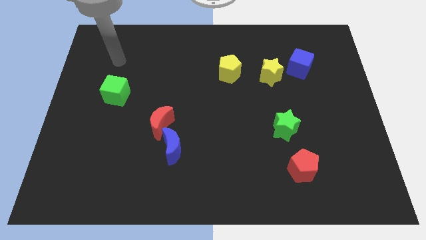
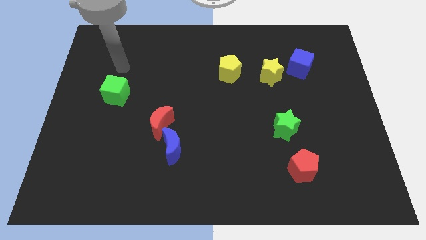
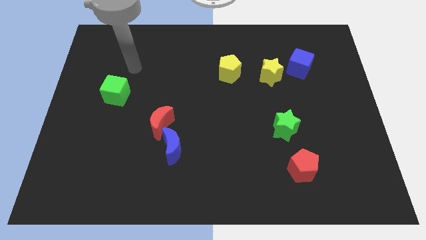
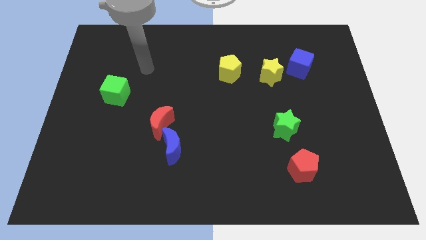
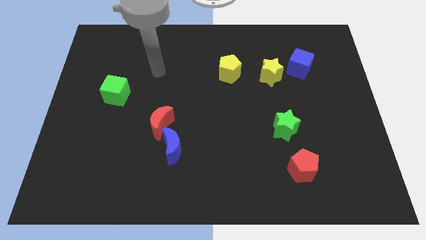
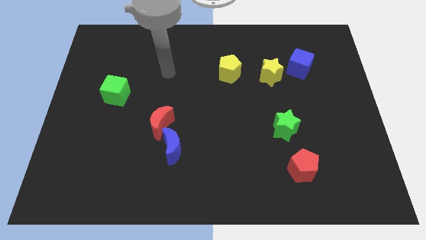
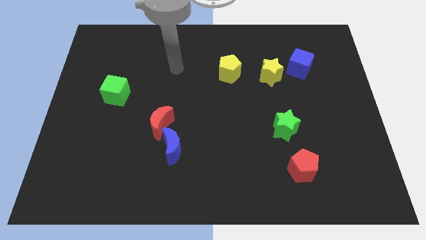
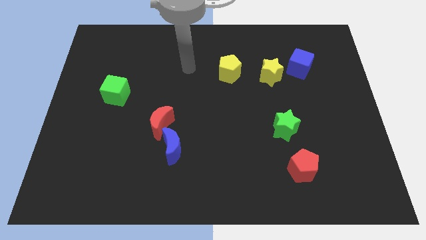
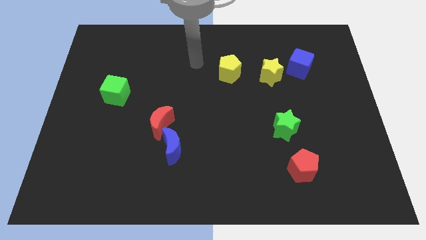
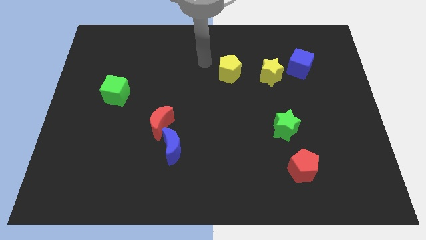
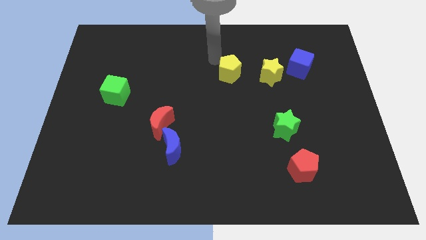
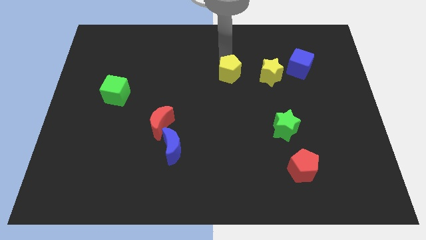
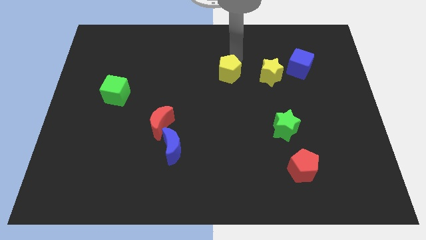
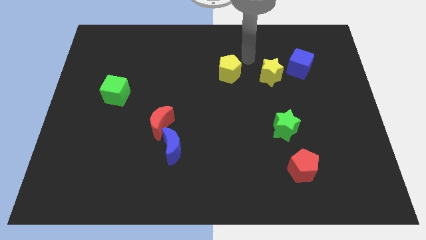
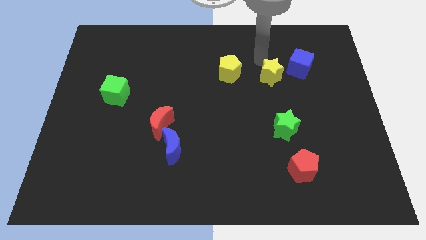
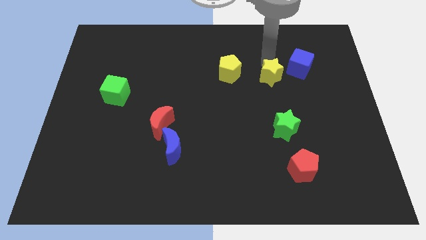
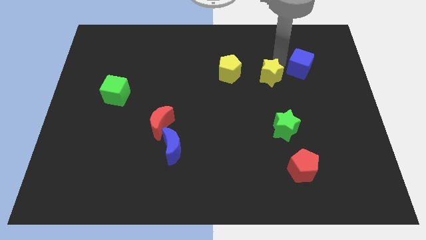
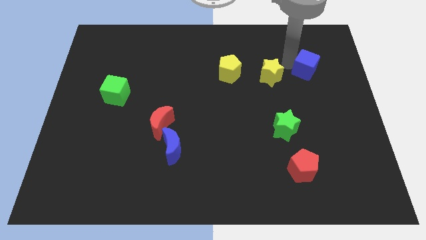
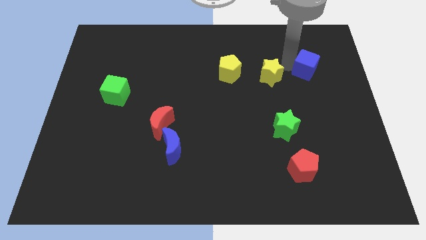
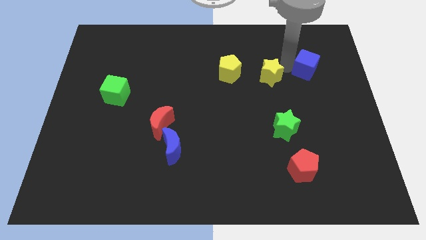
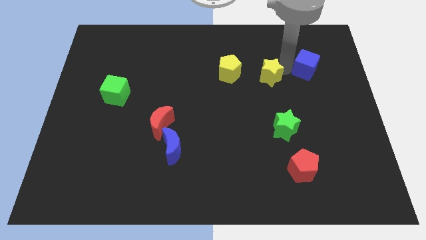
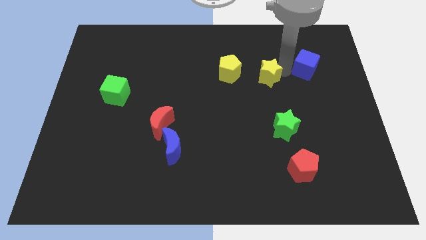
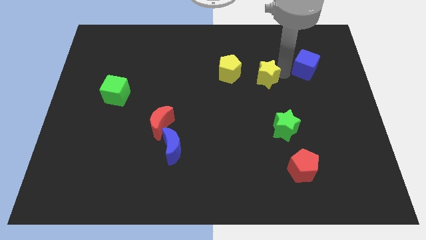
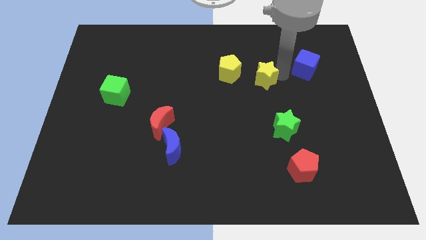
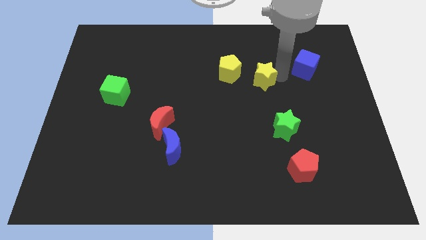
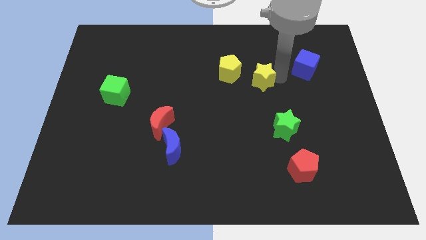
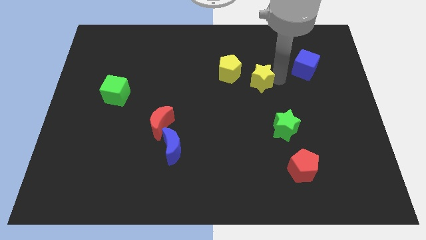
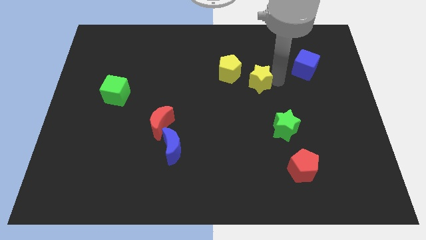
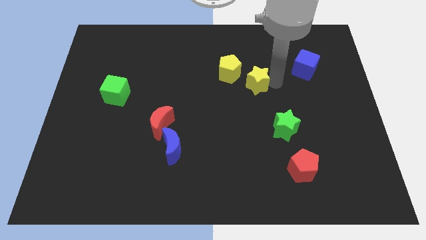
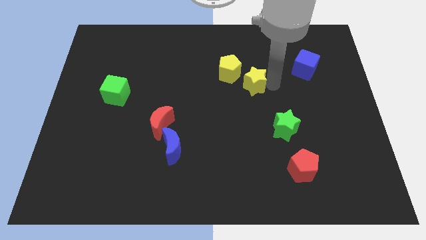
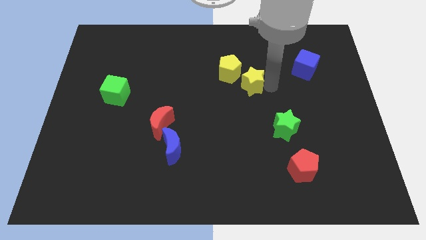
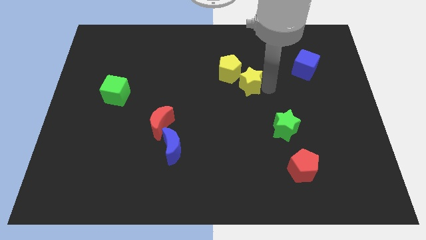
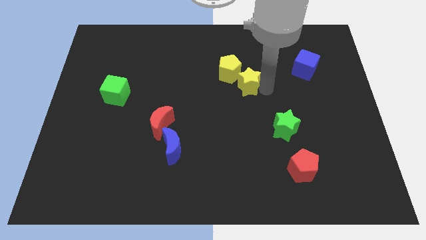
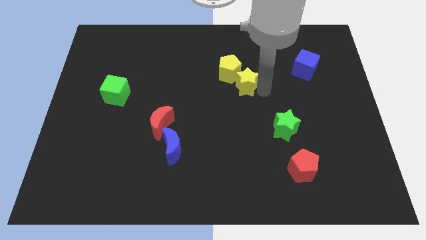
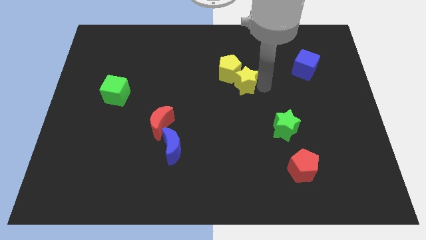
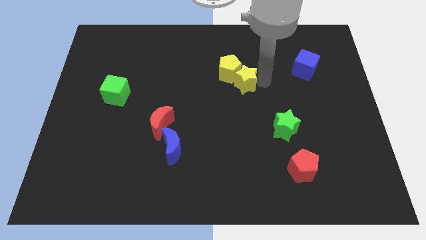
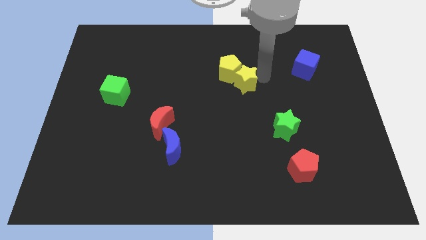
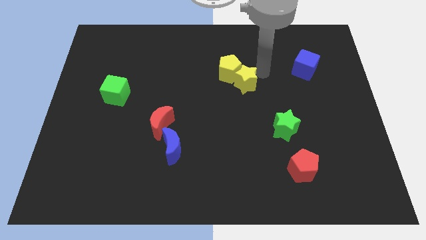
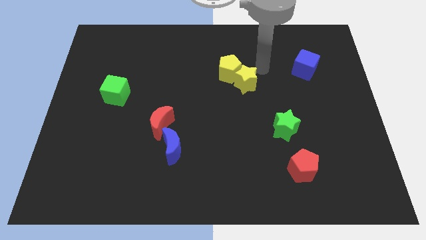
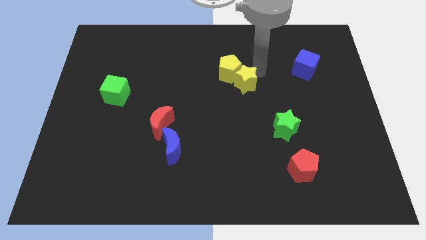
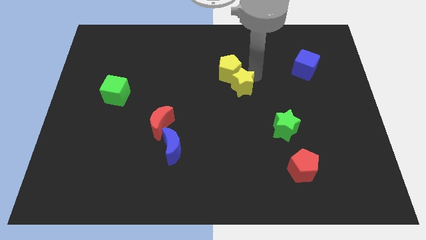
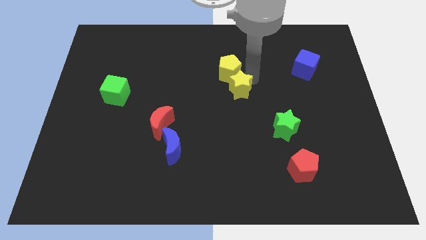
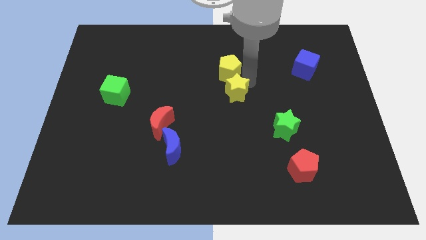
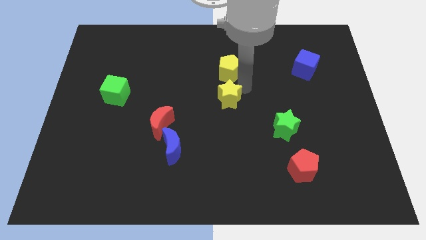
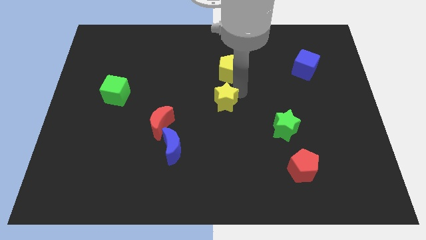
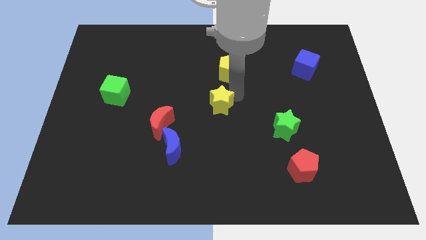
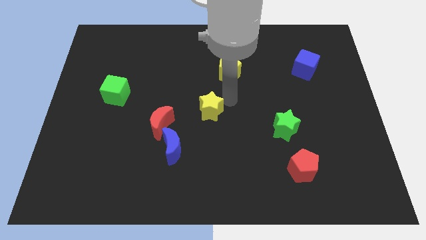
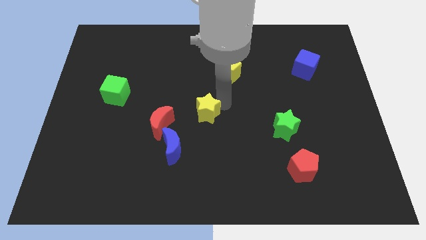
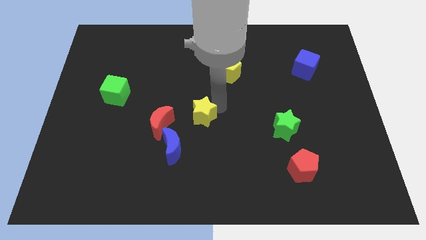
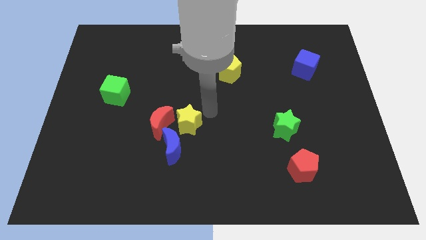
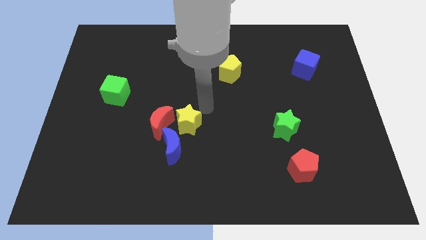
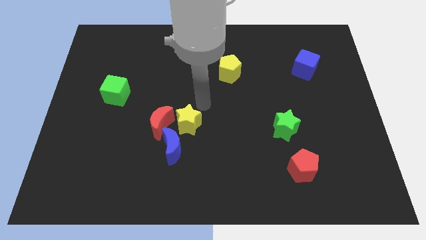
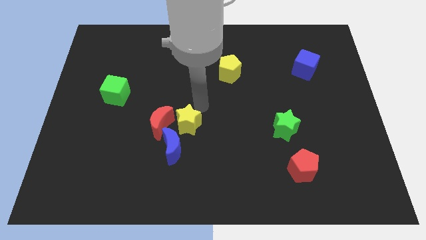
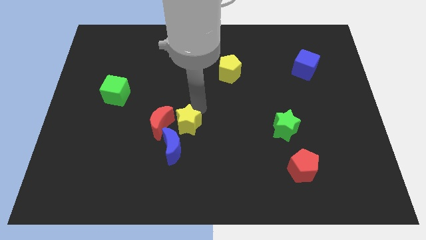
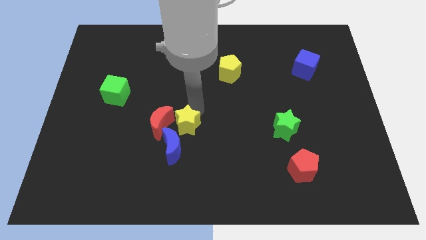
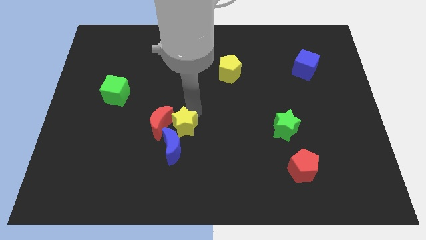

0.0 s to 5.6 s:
move the yellow star towards the blue moon

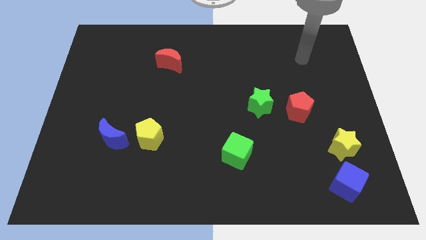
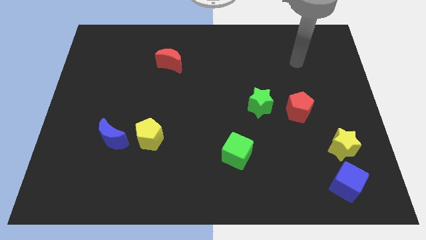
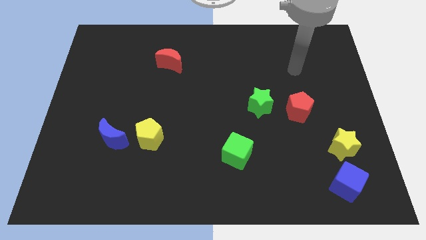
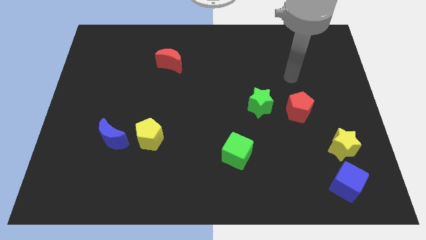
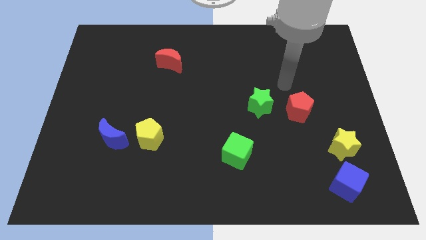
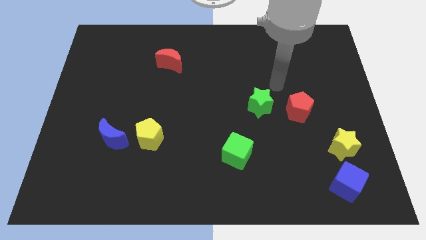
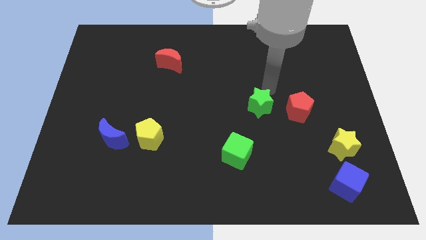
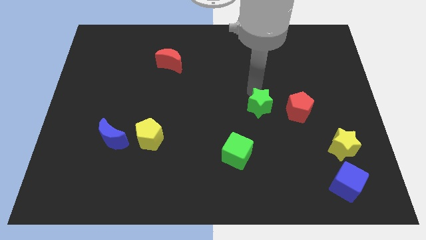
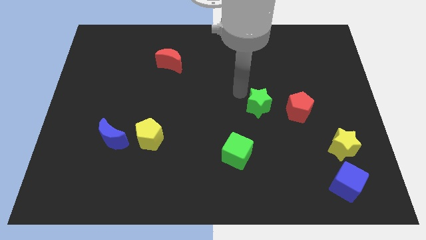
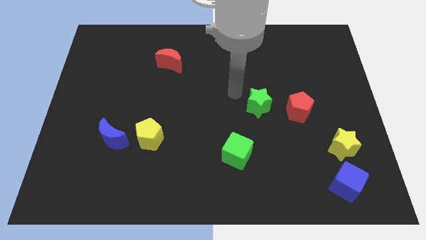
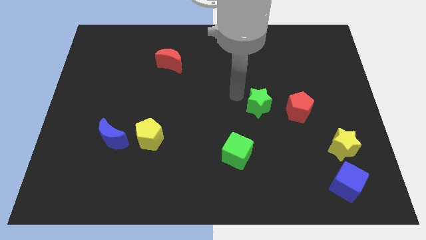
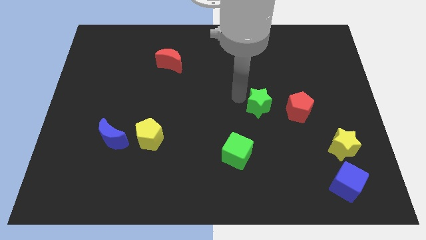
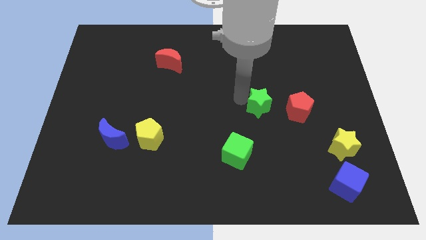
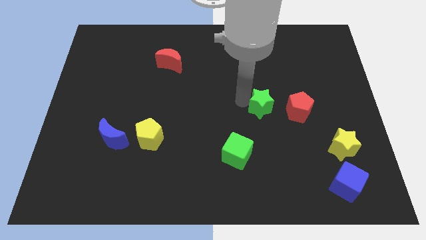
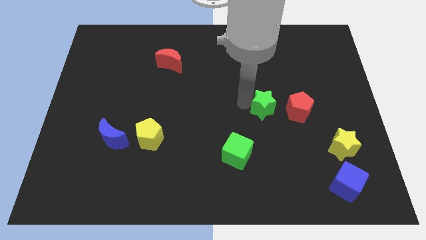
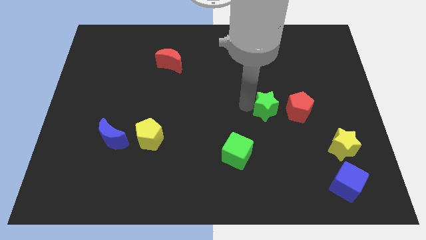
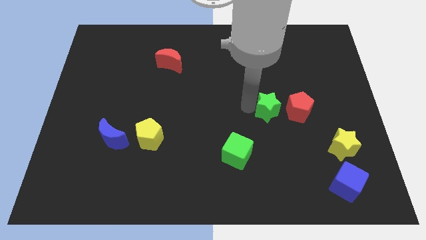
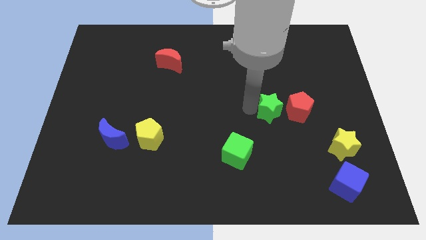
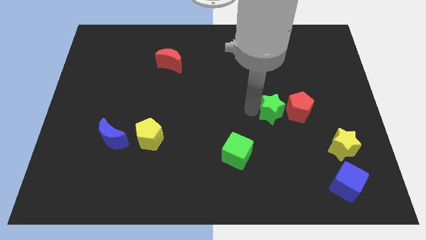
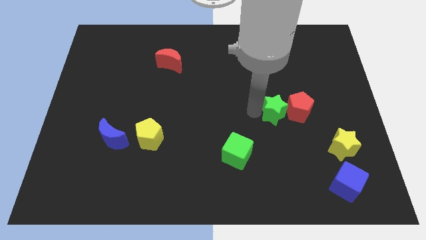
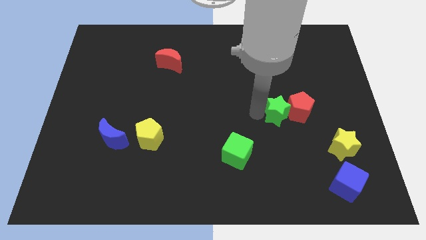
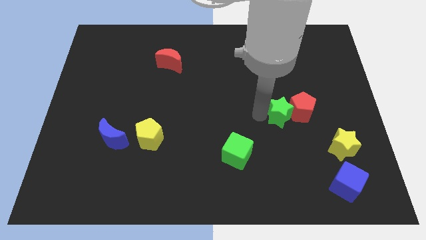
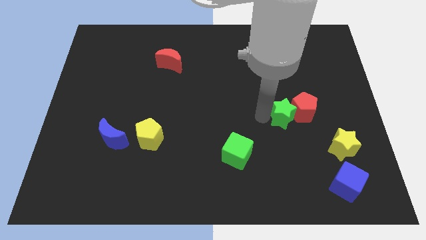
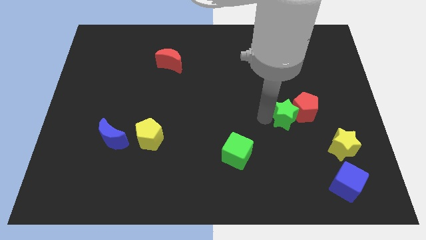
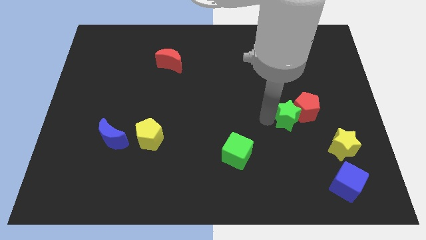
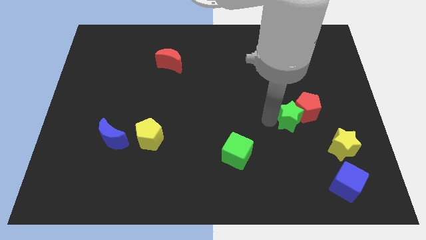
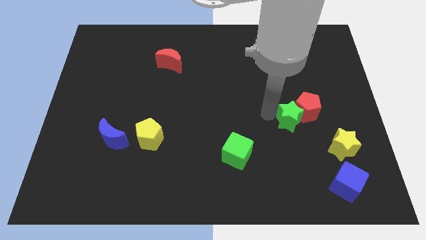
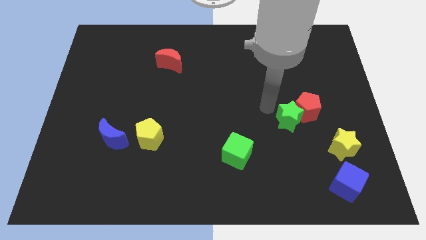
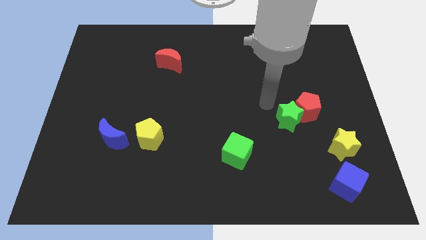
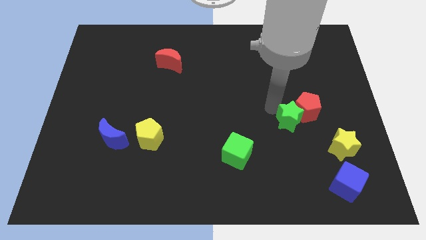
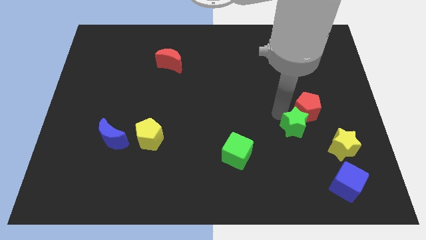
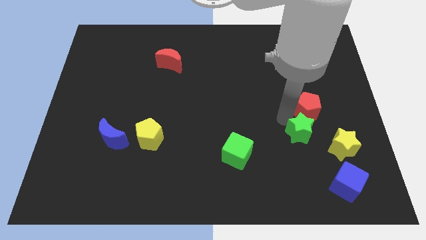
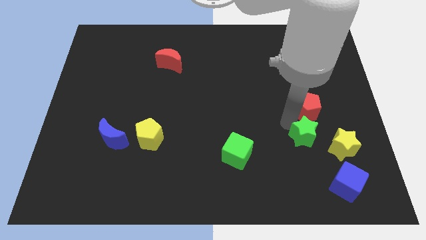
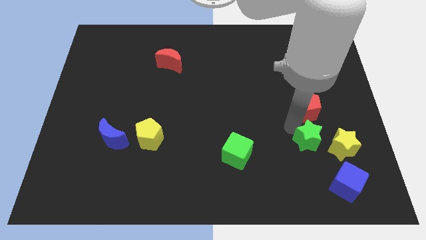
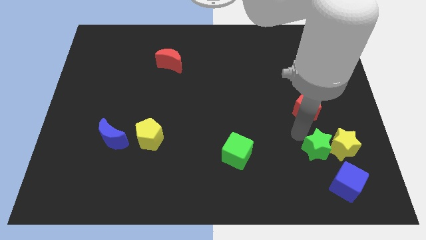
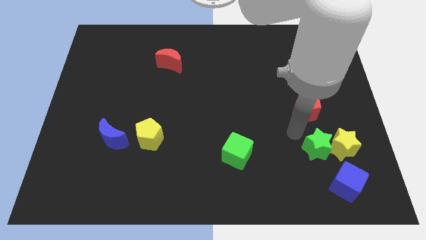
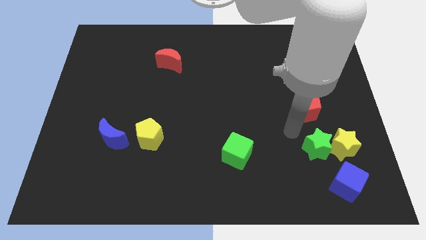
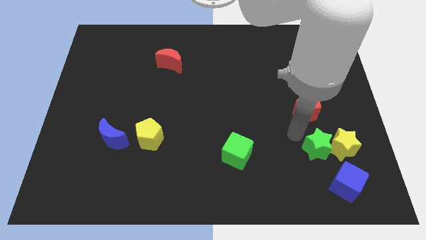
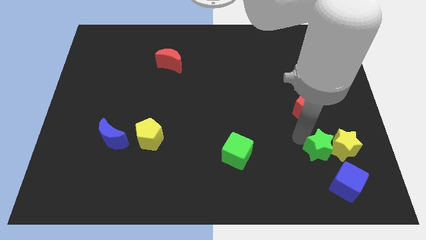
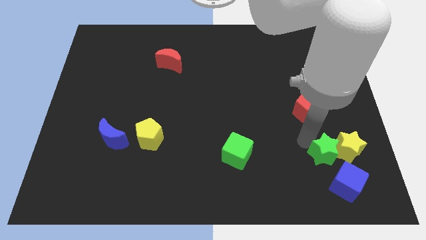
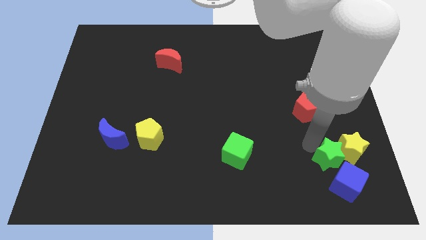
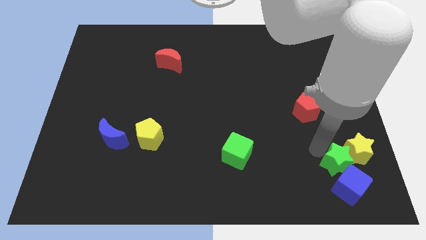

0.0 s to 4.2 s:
slide the green star close to the blue cube
